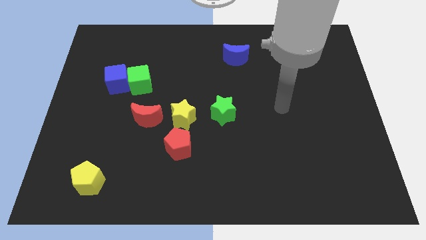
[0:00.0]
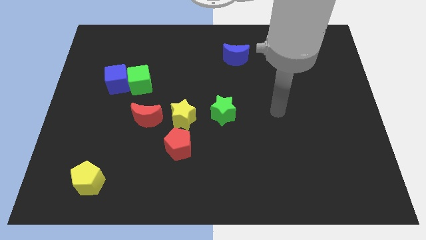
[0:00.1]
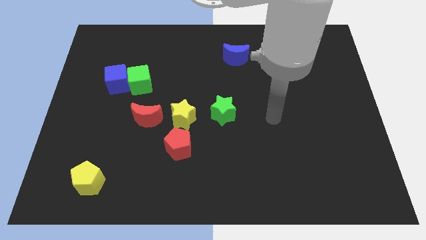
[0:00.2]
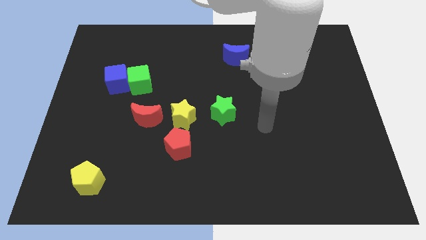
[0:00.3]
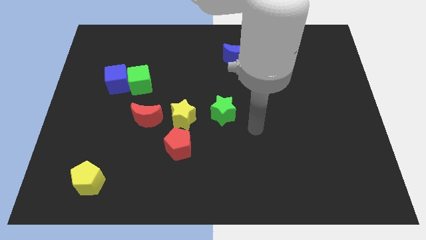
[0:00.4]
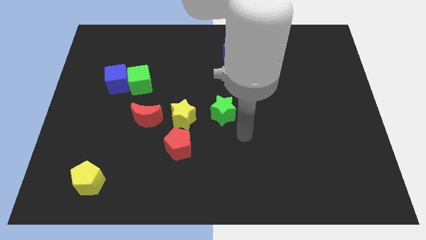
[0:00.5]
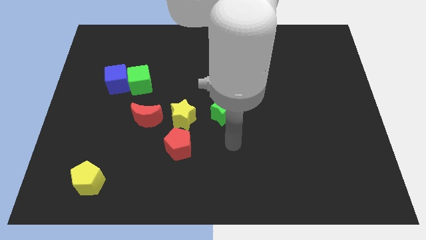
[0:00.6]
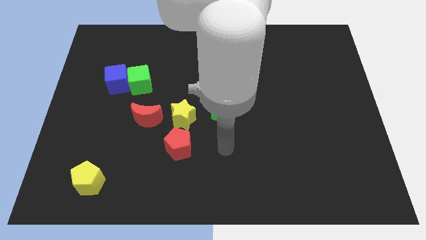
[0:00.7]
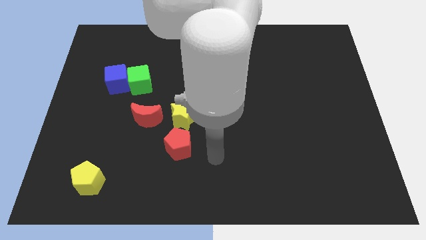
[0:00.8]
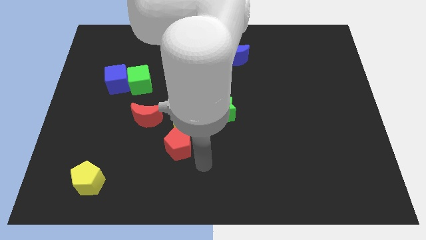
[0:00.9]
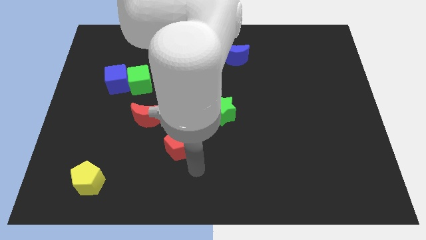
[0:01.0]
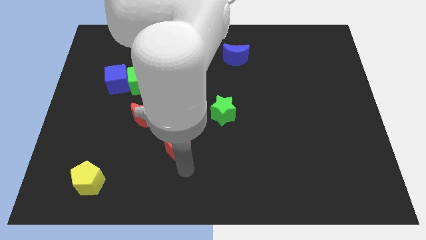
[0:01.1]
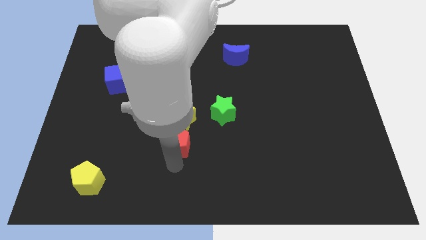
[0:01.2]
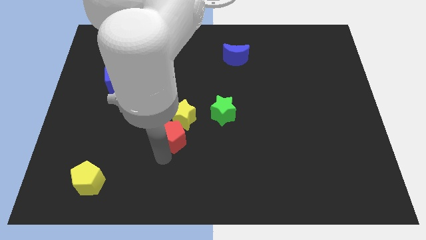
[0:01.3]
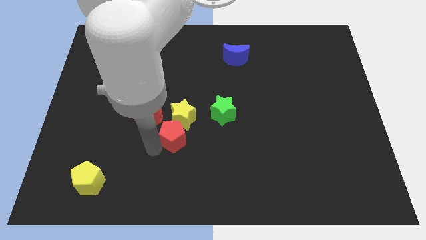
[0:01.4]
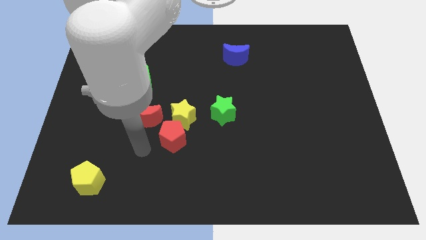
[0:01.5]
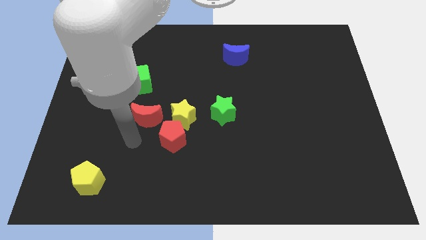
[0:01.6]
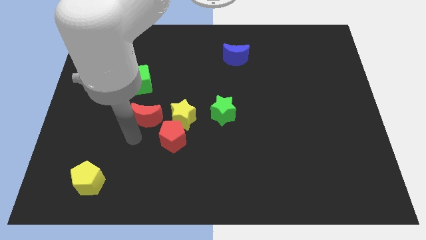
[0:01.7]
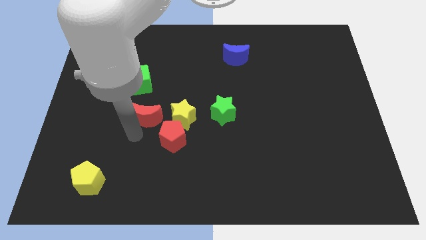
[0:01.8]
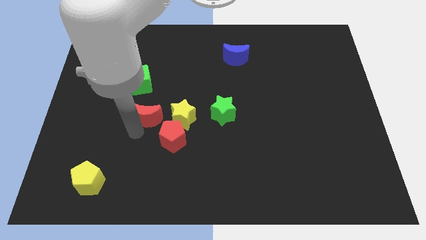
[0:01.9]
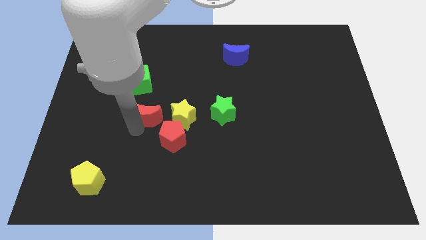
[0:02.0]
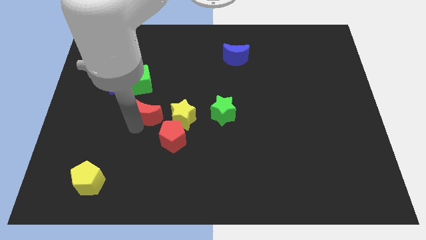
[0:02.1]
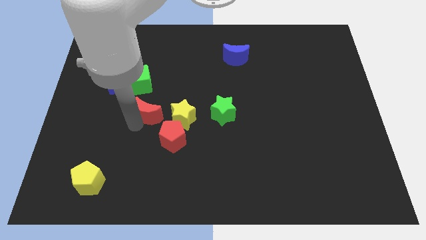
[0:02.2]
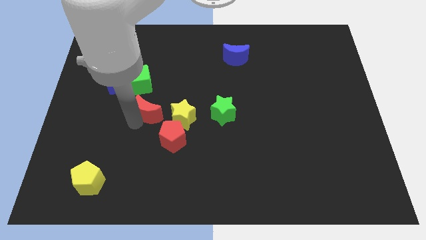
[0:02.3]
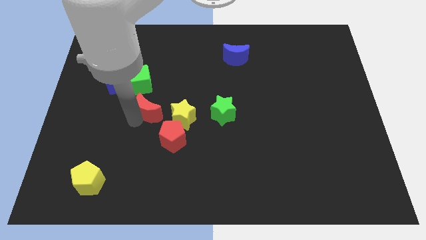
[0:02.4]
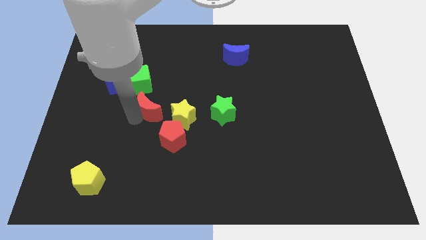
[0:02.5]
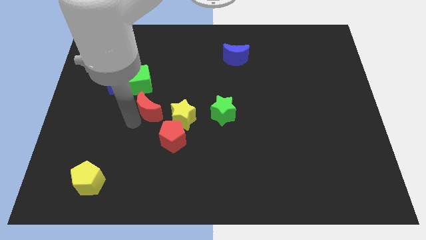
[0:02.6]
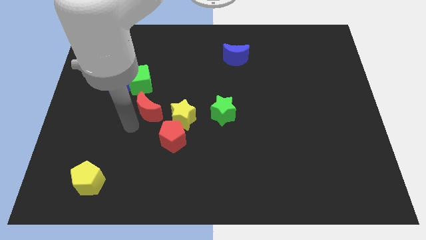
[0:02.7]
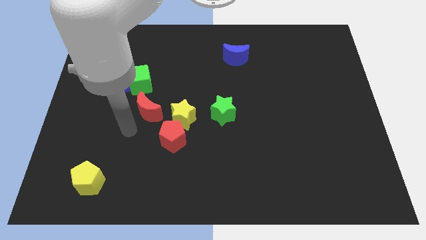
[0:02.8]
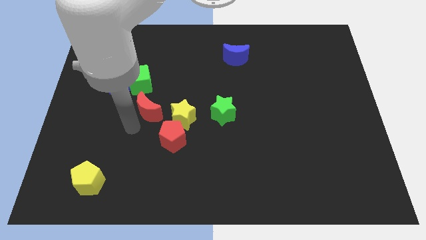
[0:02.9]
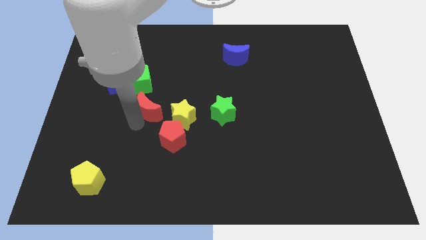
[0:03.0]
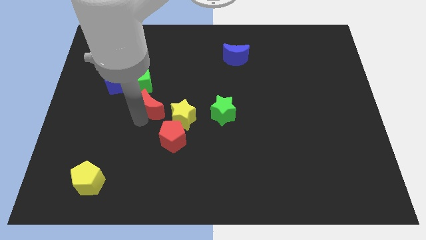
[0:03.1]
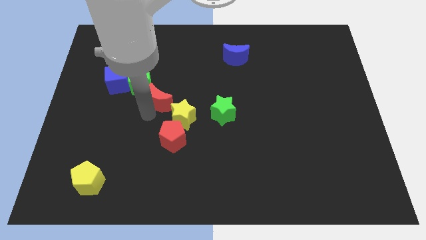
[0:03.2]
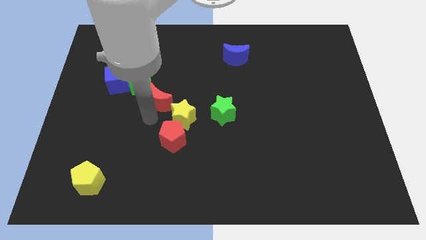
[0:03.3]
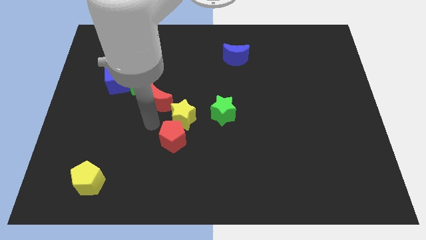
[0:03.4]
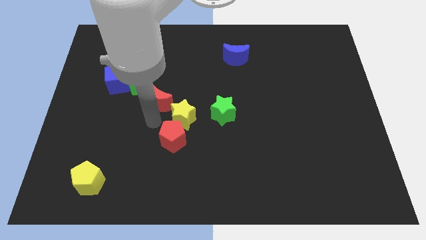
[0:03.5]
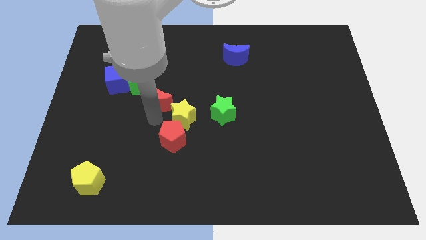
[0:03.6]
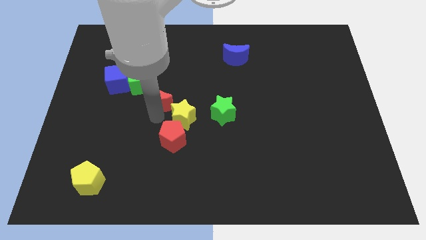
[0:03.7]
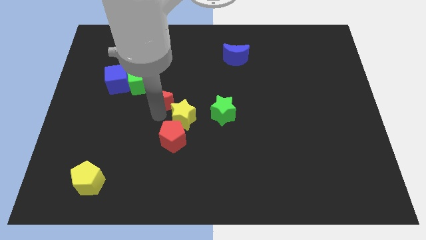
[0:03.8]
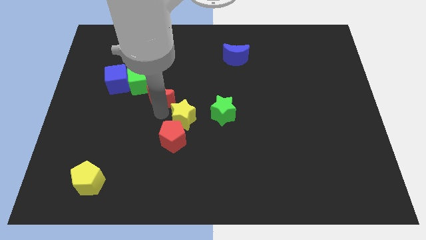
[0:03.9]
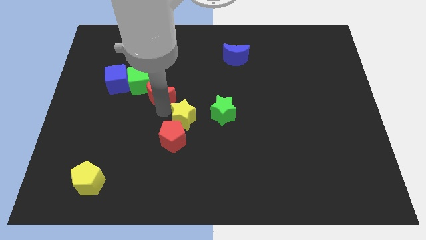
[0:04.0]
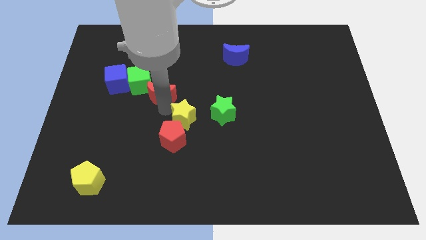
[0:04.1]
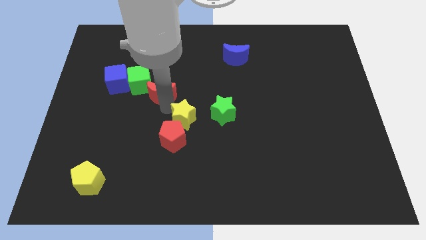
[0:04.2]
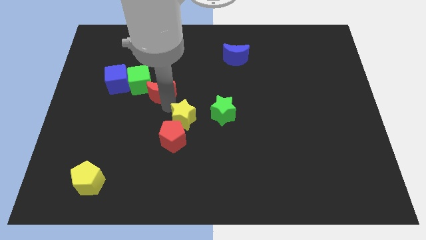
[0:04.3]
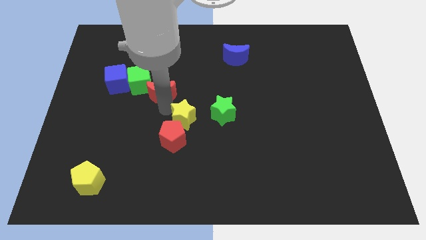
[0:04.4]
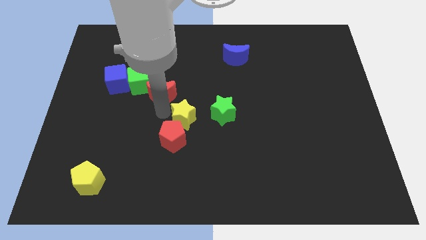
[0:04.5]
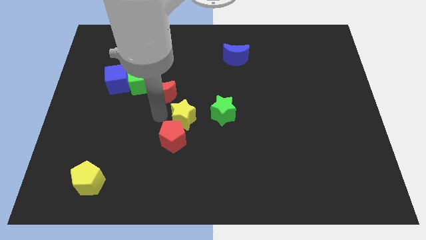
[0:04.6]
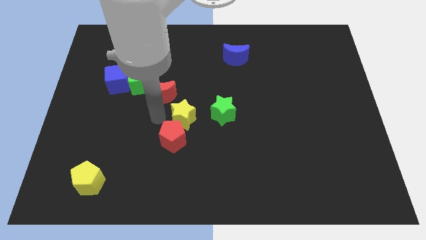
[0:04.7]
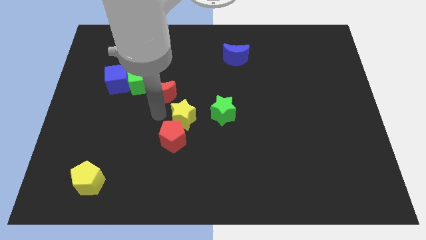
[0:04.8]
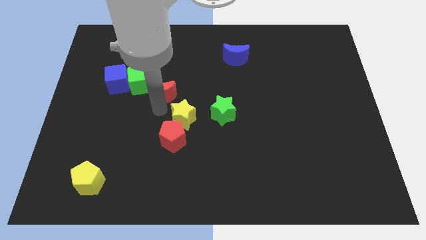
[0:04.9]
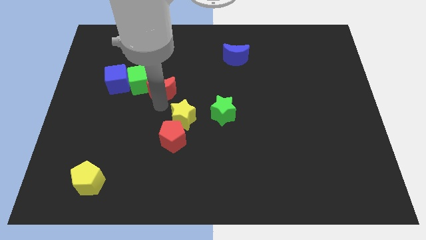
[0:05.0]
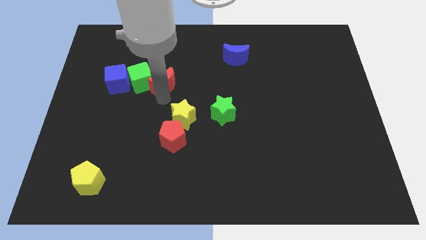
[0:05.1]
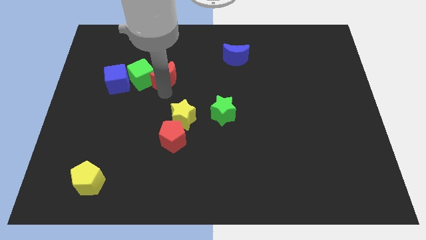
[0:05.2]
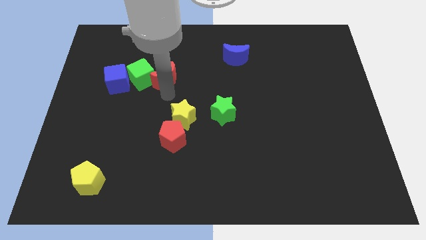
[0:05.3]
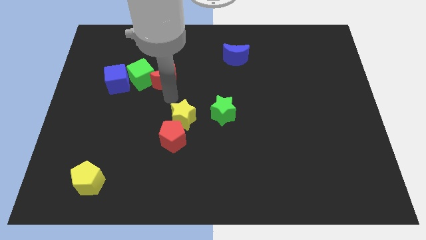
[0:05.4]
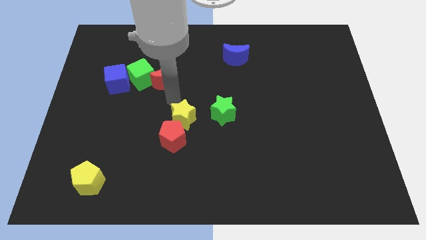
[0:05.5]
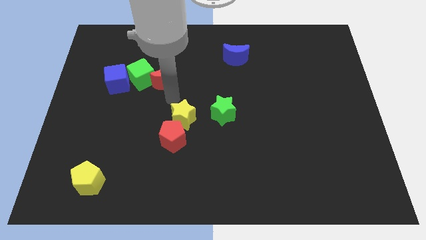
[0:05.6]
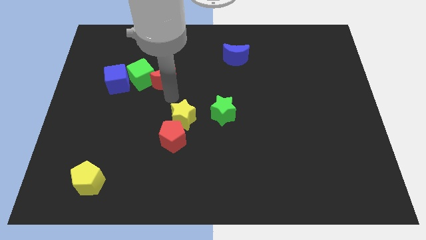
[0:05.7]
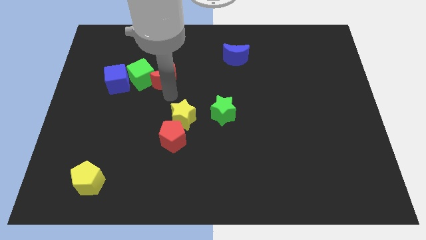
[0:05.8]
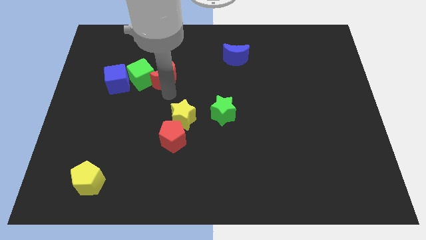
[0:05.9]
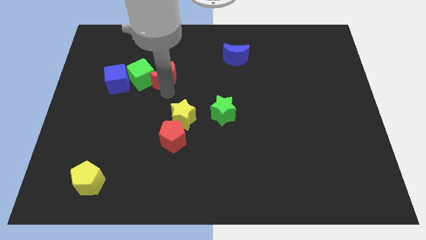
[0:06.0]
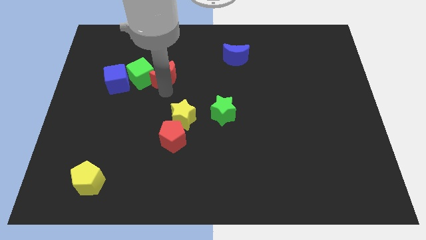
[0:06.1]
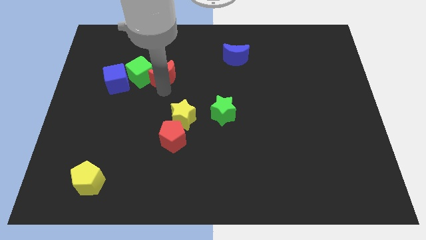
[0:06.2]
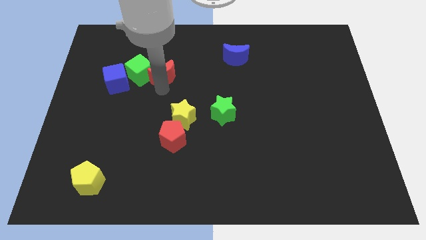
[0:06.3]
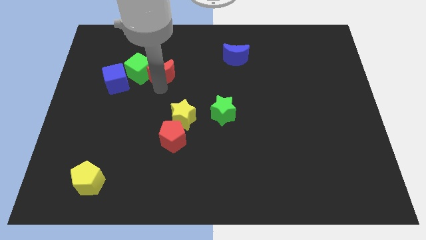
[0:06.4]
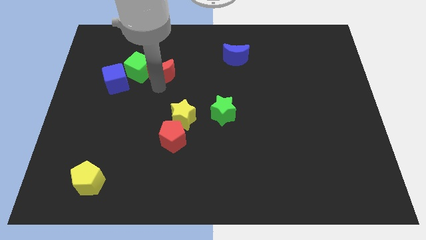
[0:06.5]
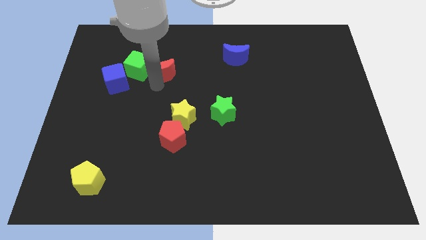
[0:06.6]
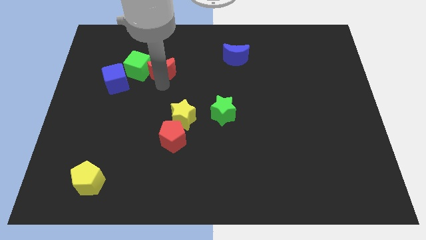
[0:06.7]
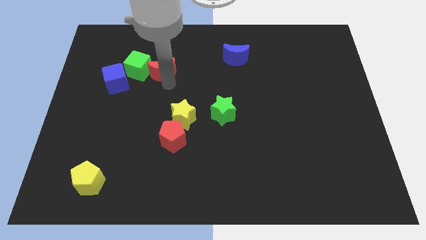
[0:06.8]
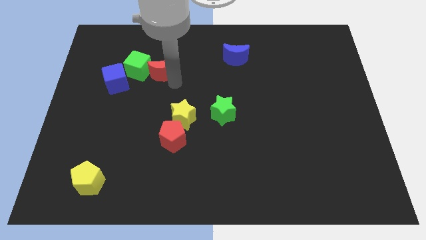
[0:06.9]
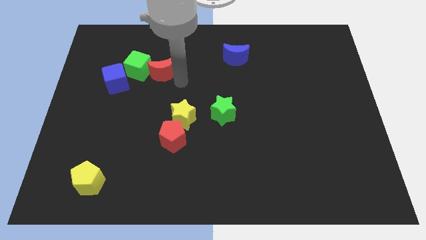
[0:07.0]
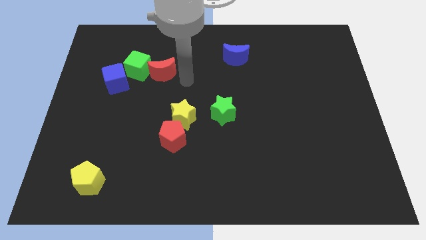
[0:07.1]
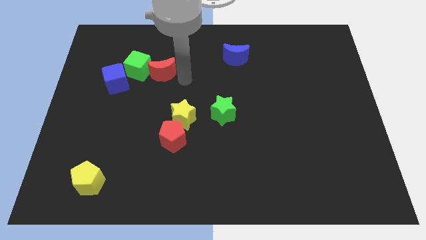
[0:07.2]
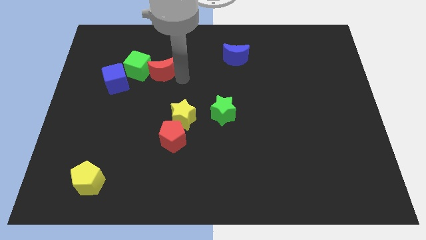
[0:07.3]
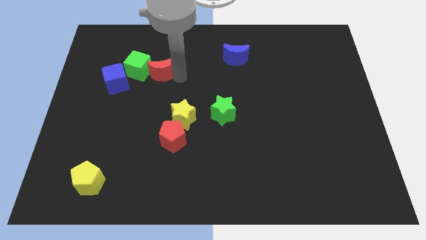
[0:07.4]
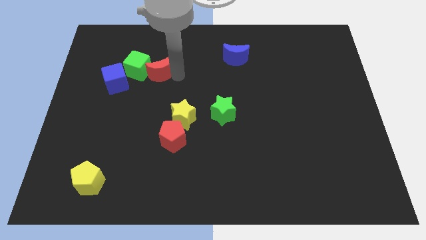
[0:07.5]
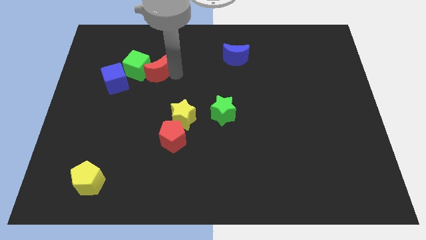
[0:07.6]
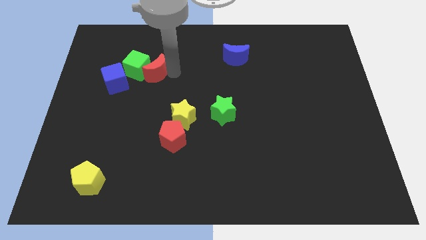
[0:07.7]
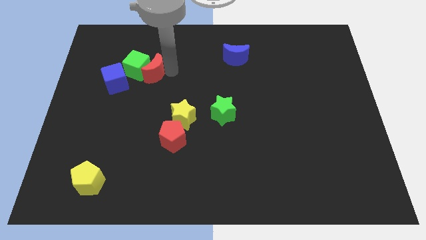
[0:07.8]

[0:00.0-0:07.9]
slide the red moon diagonally up and to the right of the blue cube
